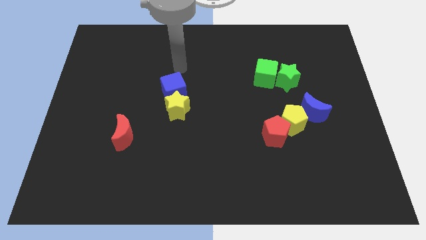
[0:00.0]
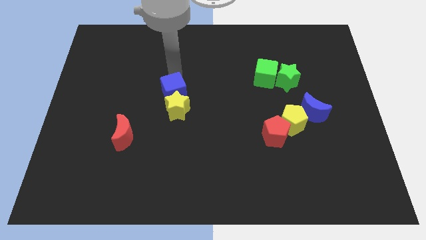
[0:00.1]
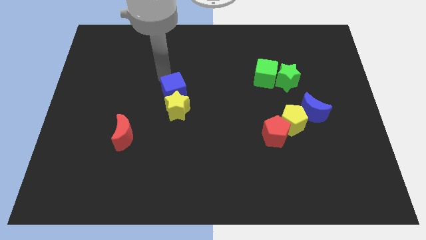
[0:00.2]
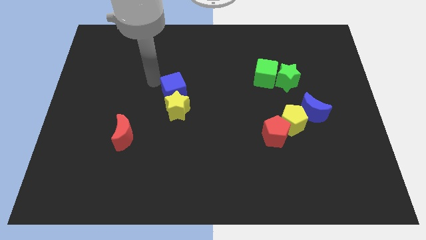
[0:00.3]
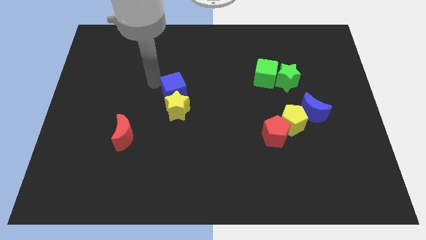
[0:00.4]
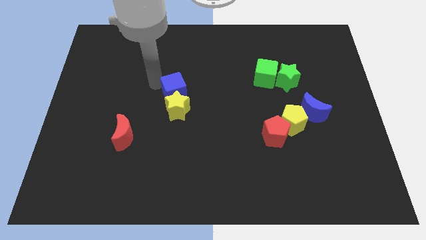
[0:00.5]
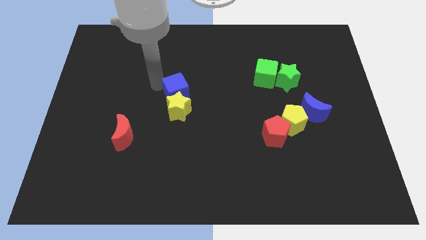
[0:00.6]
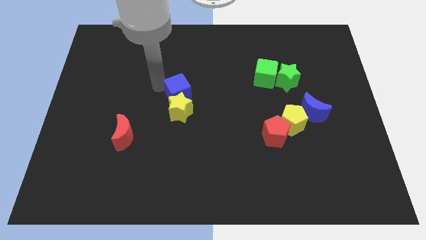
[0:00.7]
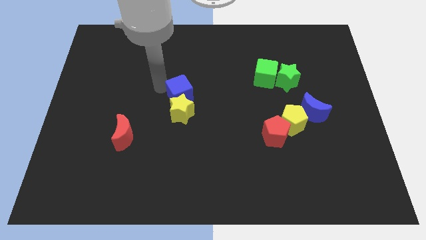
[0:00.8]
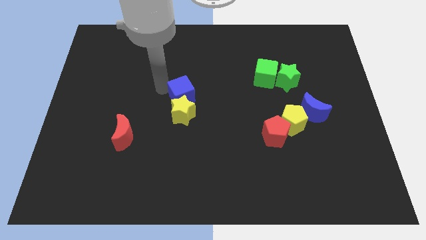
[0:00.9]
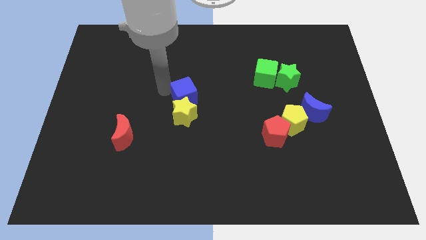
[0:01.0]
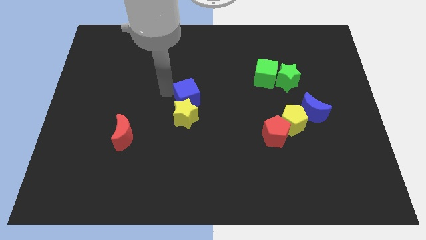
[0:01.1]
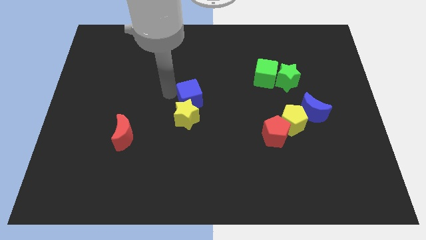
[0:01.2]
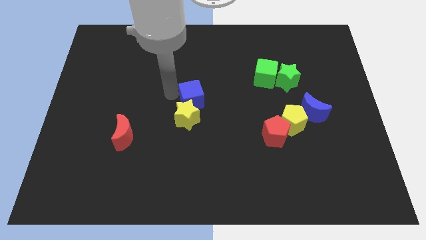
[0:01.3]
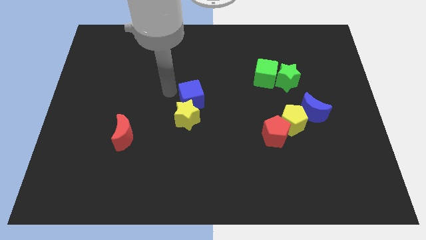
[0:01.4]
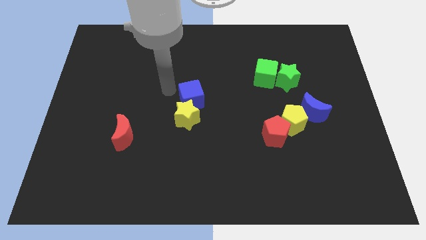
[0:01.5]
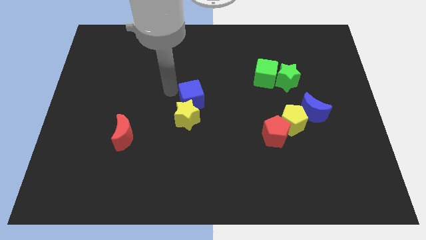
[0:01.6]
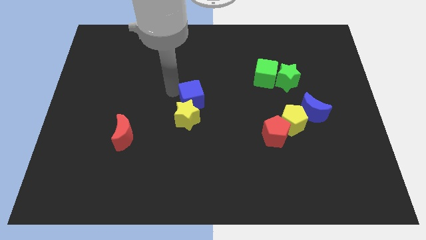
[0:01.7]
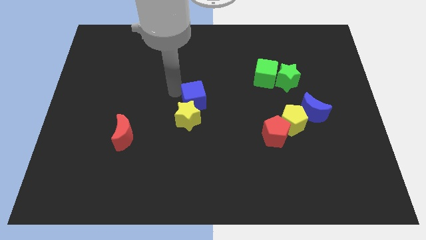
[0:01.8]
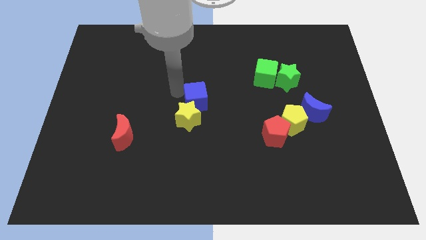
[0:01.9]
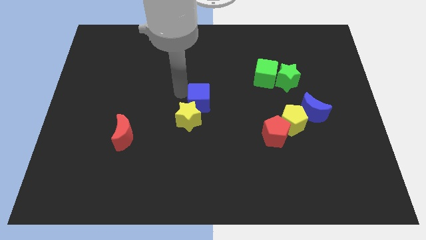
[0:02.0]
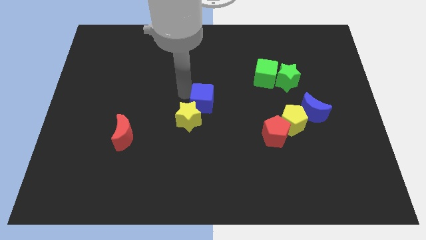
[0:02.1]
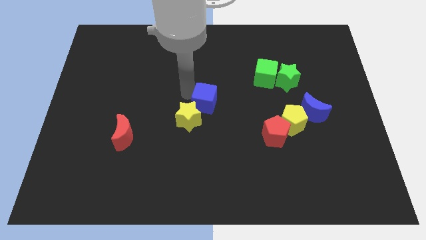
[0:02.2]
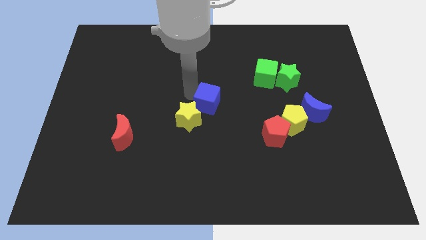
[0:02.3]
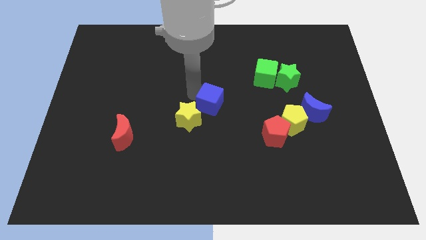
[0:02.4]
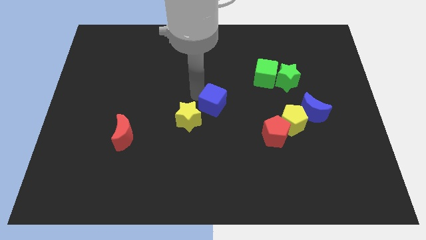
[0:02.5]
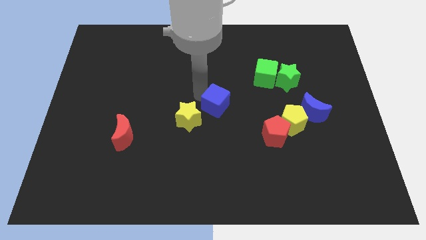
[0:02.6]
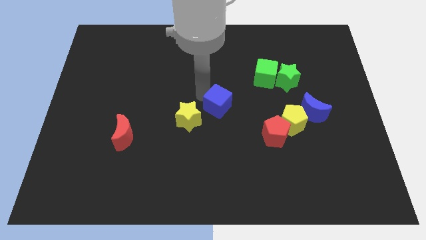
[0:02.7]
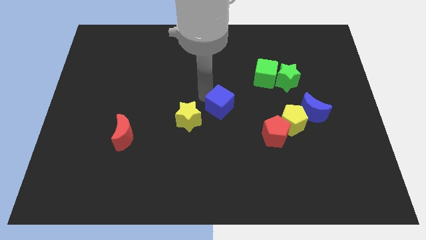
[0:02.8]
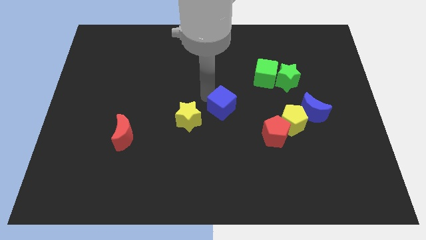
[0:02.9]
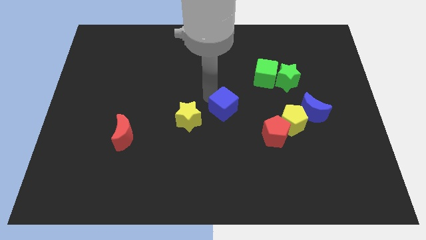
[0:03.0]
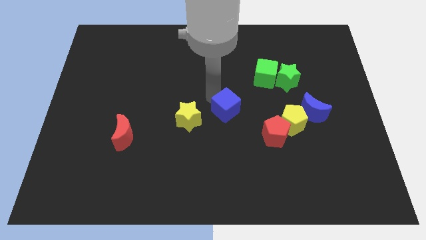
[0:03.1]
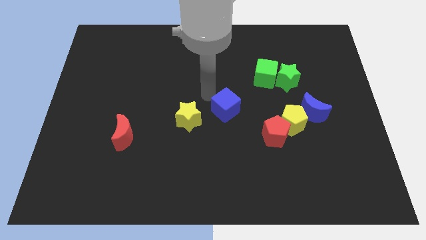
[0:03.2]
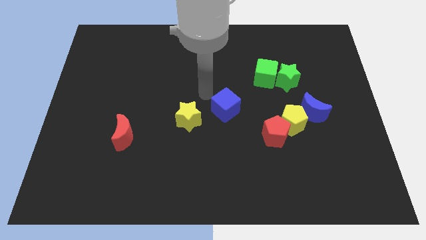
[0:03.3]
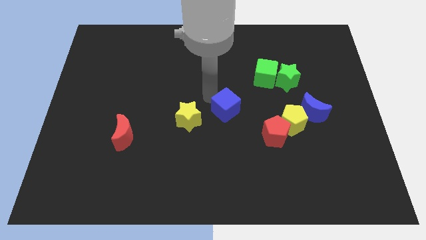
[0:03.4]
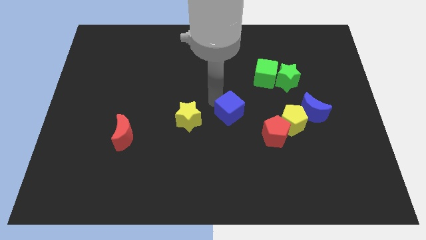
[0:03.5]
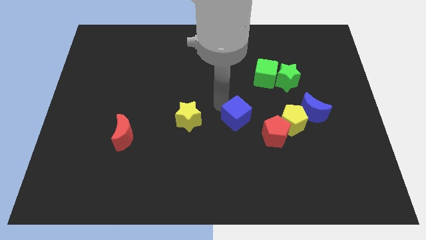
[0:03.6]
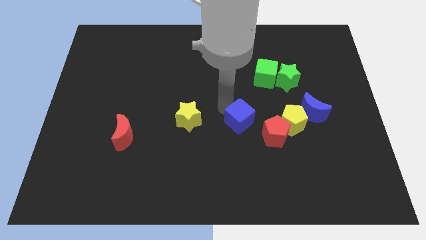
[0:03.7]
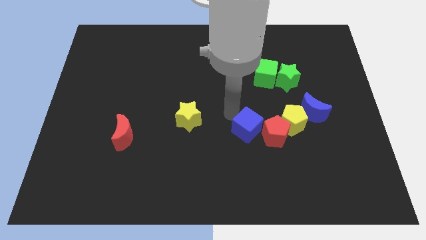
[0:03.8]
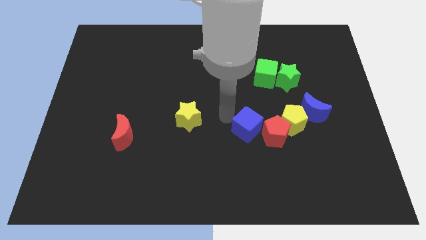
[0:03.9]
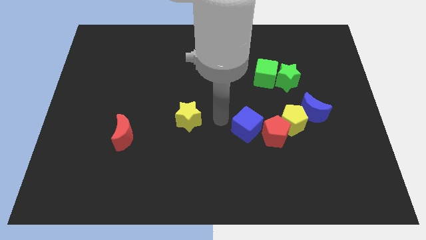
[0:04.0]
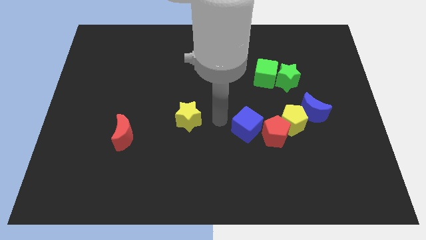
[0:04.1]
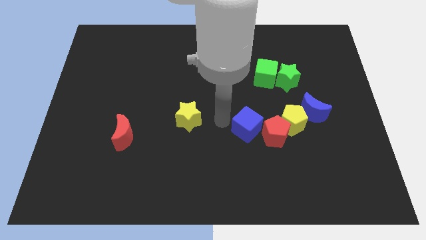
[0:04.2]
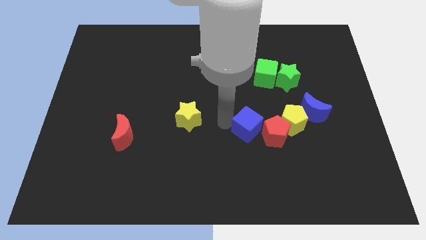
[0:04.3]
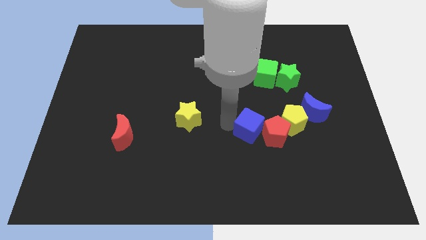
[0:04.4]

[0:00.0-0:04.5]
slide the blue cube towards the red pentagon

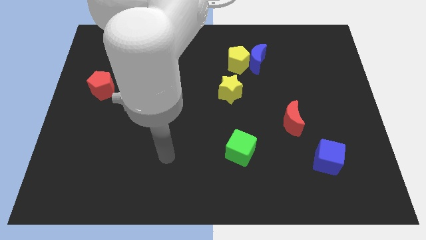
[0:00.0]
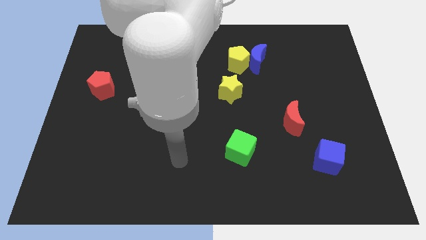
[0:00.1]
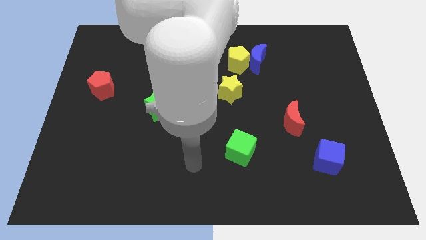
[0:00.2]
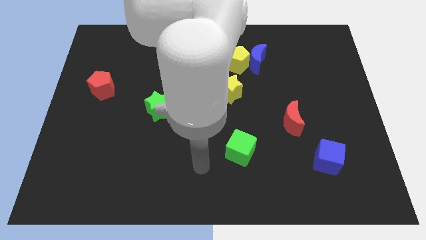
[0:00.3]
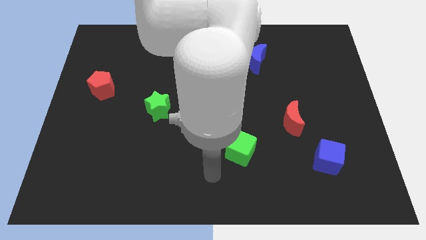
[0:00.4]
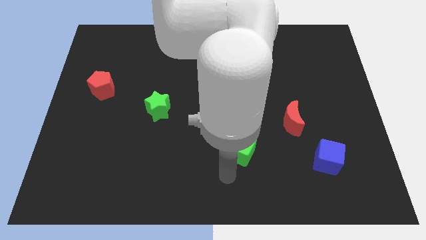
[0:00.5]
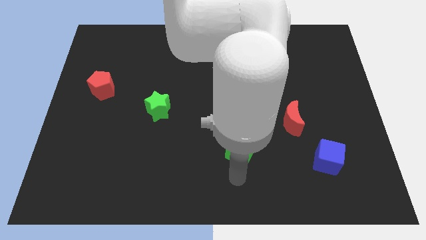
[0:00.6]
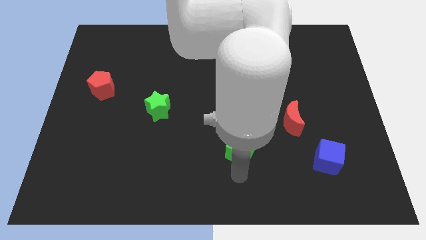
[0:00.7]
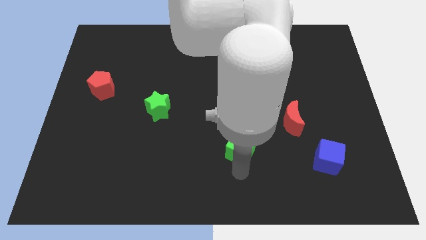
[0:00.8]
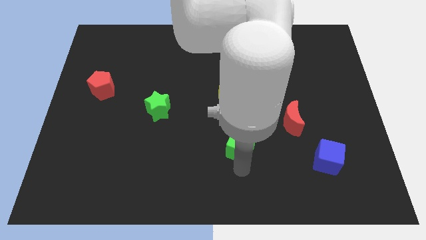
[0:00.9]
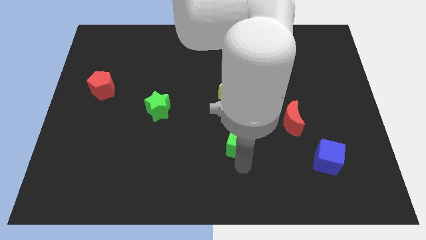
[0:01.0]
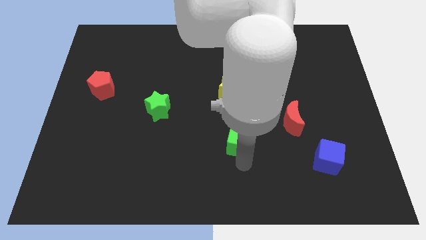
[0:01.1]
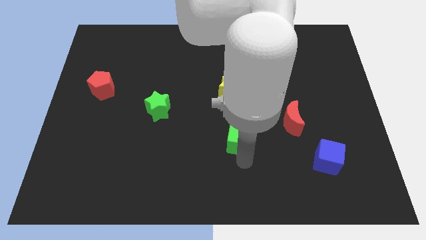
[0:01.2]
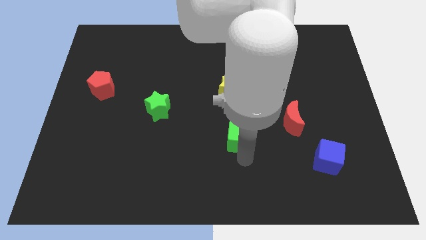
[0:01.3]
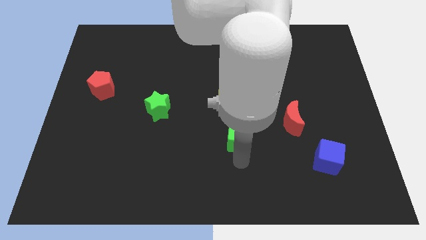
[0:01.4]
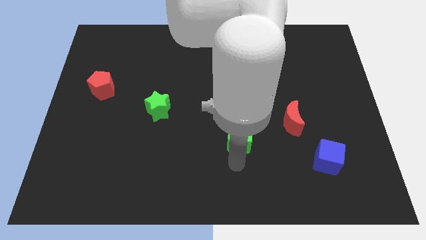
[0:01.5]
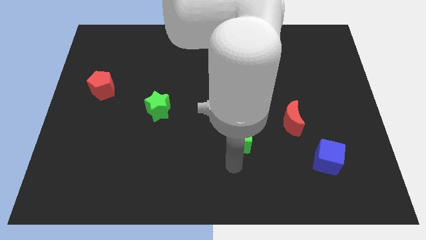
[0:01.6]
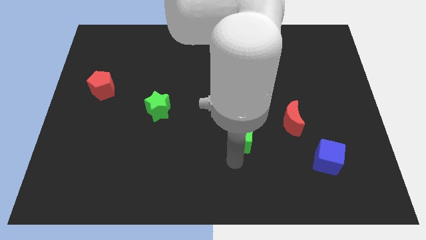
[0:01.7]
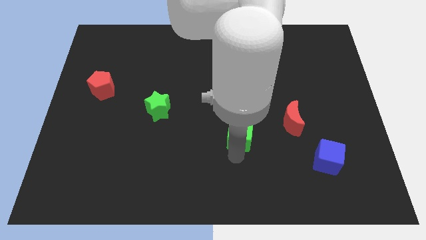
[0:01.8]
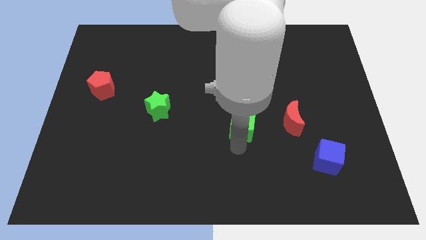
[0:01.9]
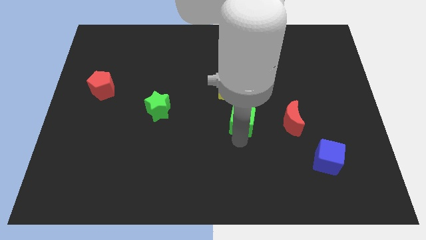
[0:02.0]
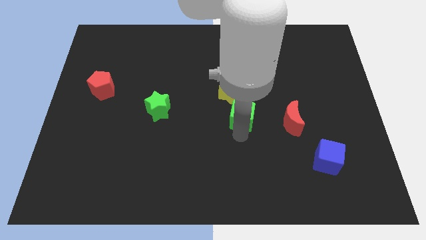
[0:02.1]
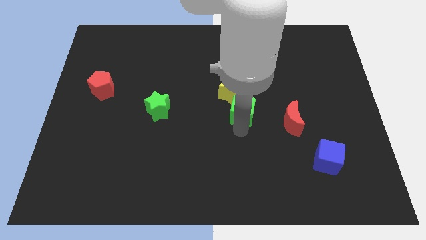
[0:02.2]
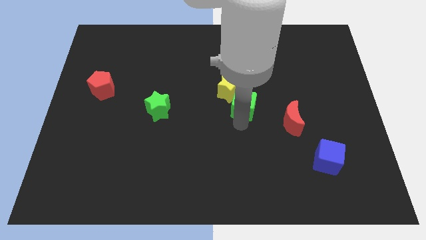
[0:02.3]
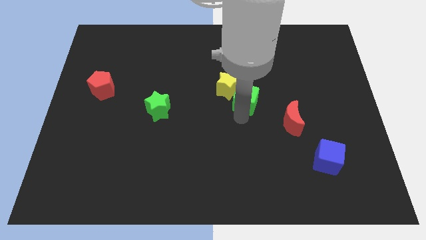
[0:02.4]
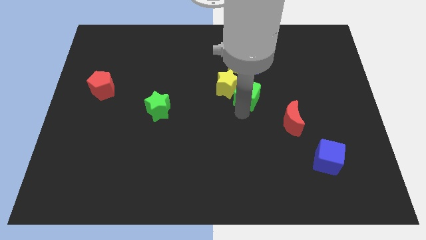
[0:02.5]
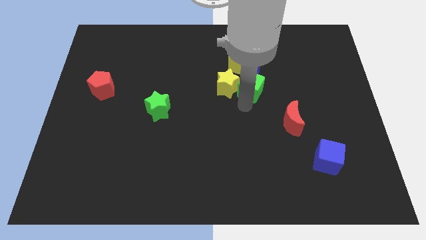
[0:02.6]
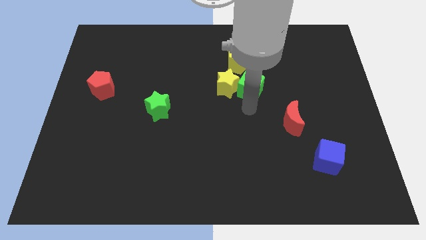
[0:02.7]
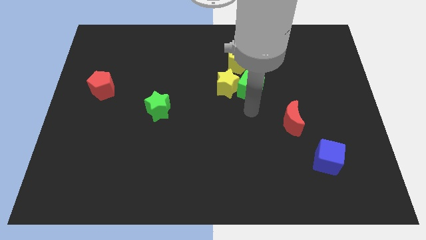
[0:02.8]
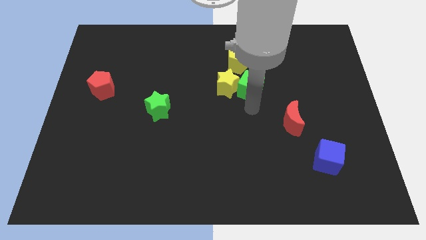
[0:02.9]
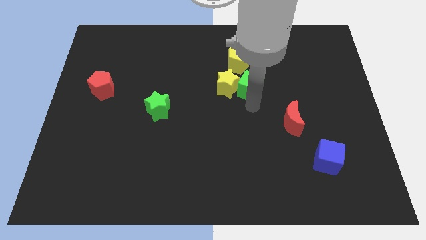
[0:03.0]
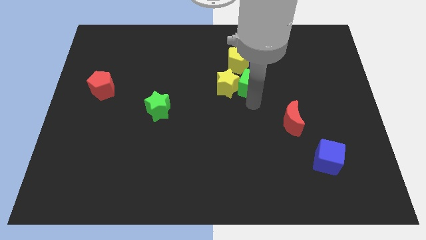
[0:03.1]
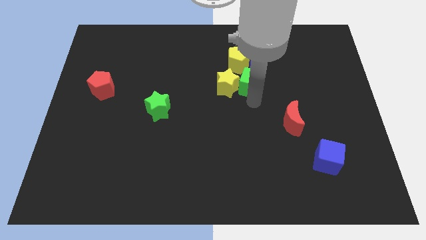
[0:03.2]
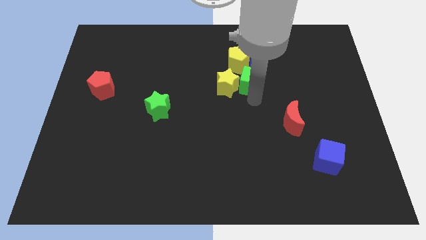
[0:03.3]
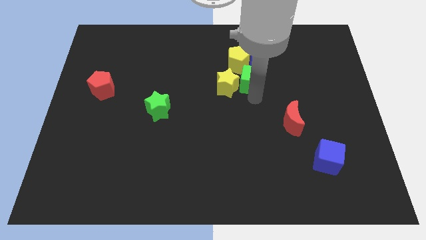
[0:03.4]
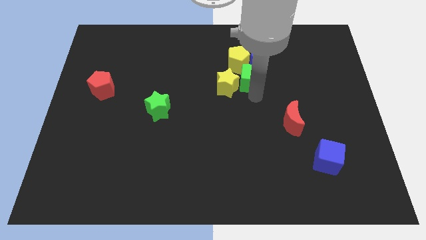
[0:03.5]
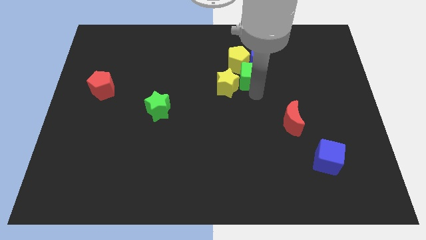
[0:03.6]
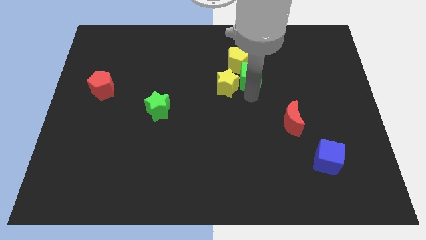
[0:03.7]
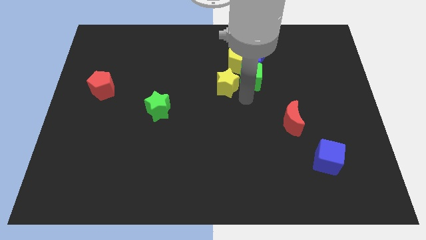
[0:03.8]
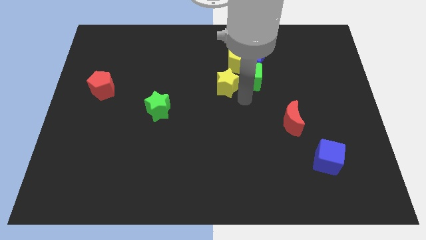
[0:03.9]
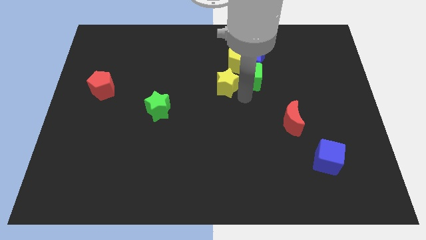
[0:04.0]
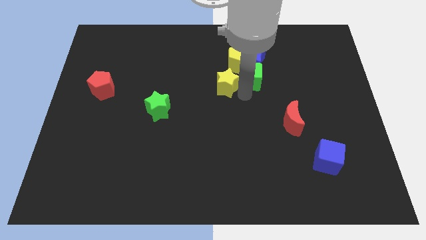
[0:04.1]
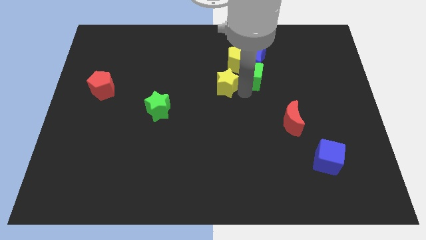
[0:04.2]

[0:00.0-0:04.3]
put the green cube close to the blue moon
